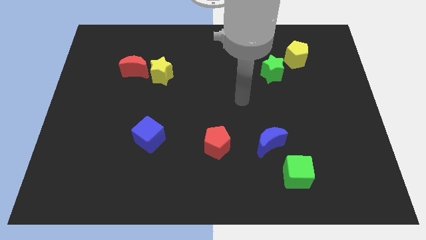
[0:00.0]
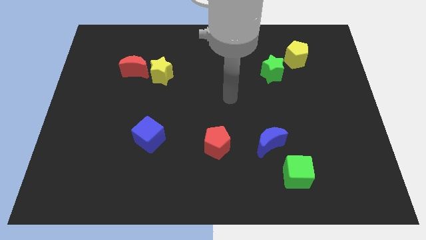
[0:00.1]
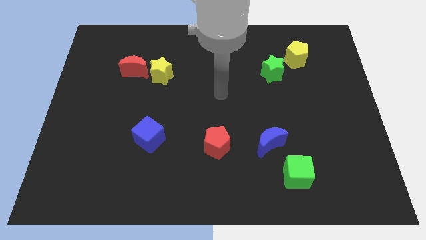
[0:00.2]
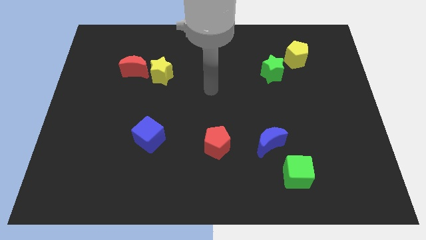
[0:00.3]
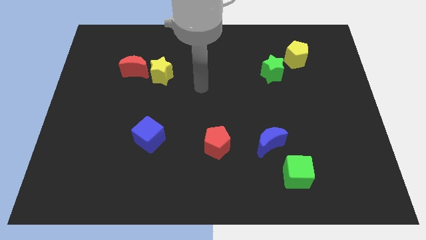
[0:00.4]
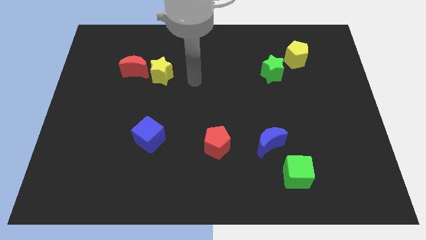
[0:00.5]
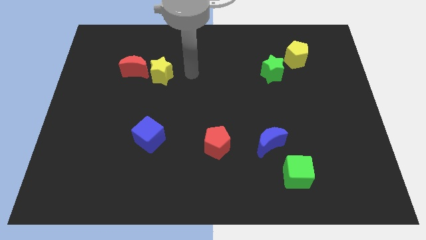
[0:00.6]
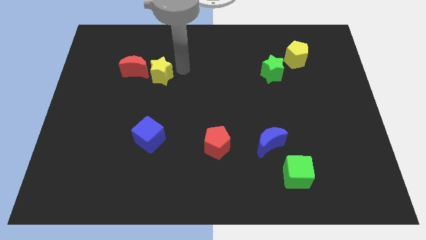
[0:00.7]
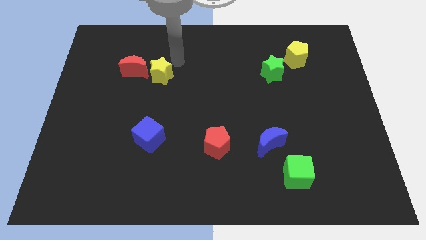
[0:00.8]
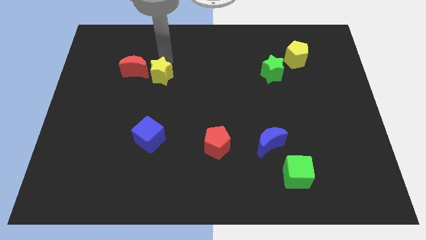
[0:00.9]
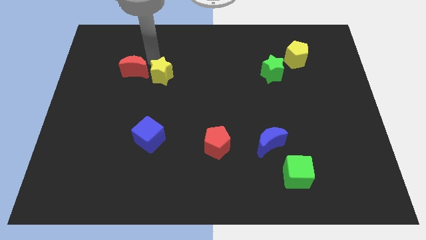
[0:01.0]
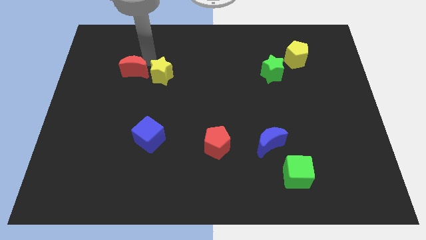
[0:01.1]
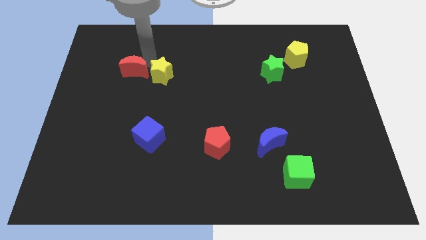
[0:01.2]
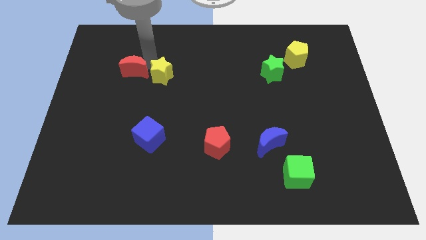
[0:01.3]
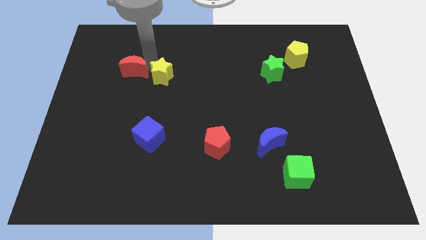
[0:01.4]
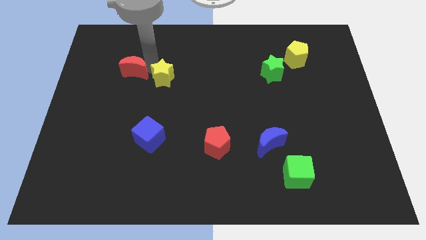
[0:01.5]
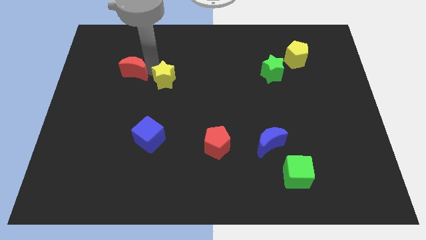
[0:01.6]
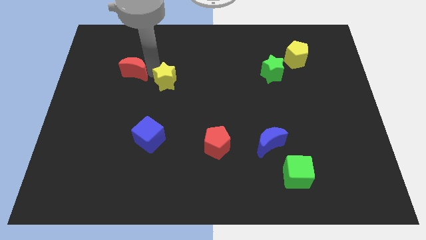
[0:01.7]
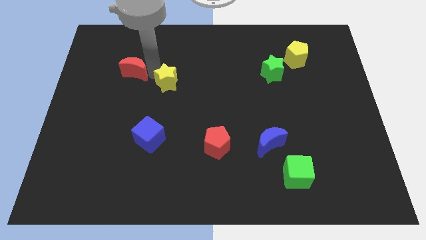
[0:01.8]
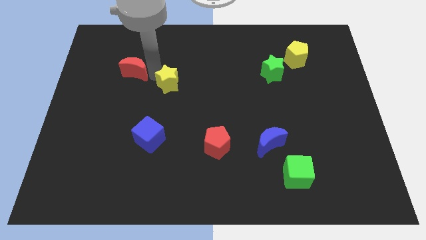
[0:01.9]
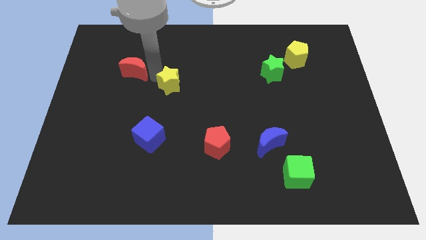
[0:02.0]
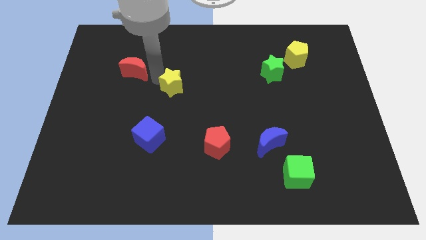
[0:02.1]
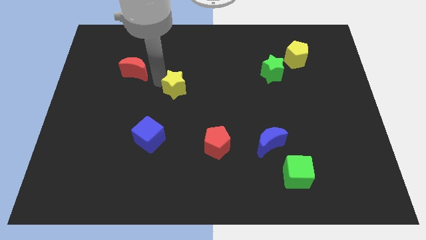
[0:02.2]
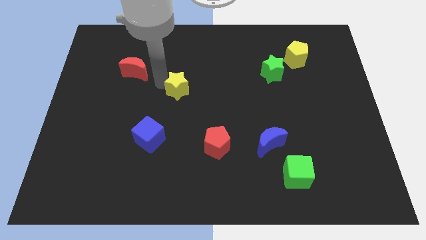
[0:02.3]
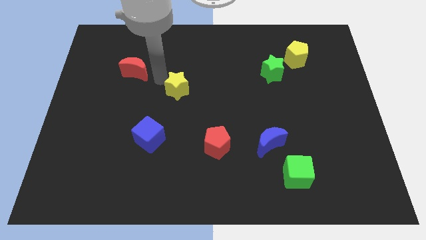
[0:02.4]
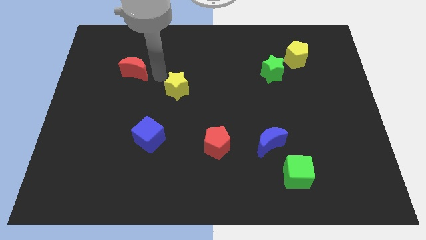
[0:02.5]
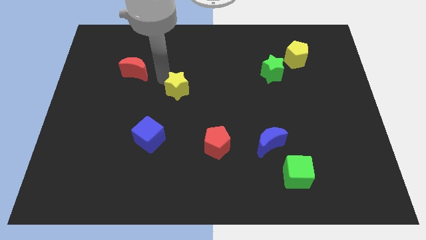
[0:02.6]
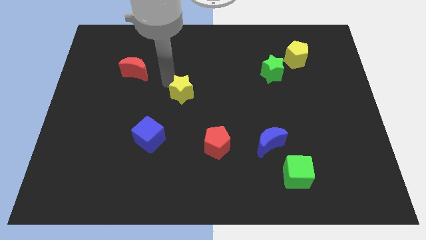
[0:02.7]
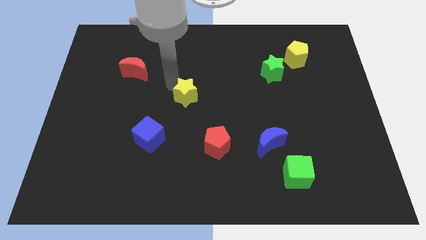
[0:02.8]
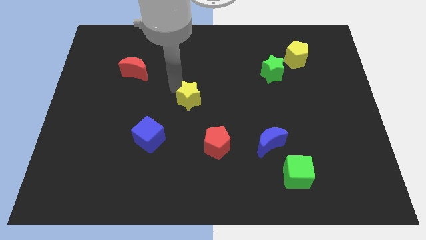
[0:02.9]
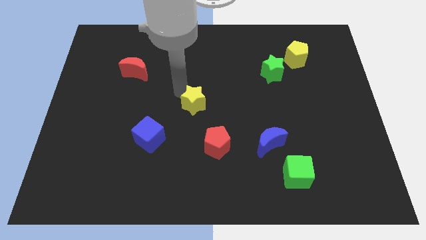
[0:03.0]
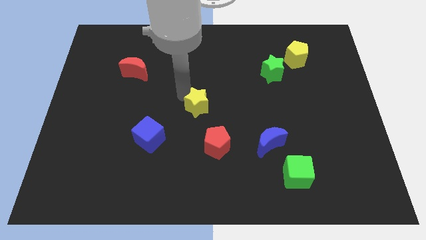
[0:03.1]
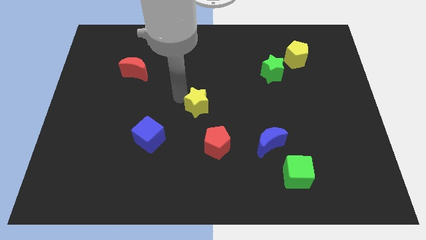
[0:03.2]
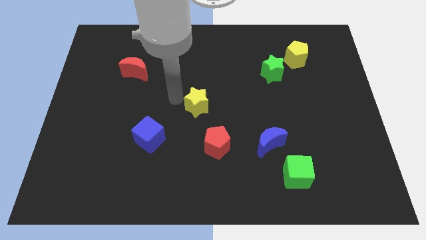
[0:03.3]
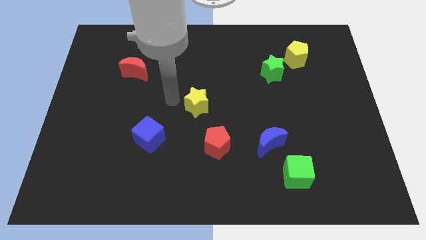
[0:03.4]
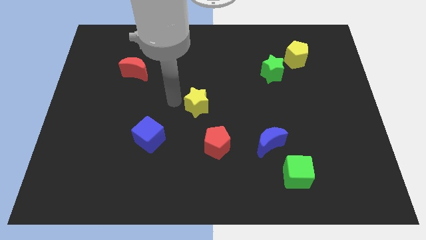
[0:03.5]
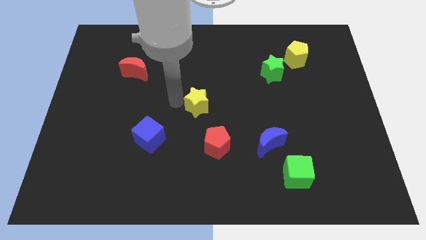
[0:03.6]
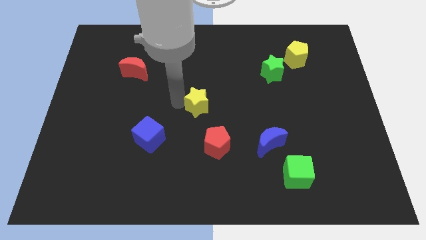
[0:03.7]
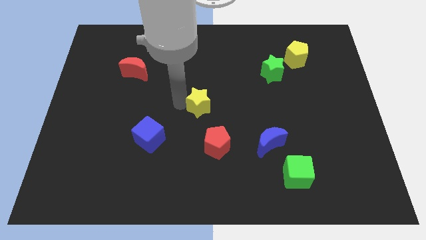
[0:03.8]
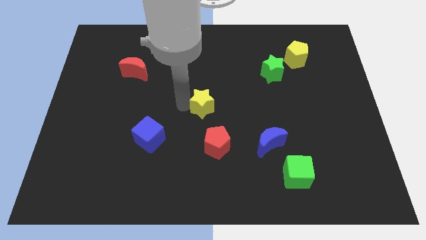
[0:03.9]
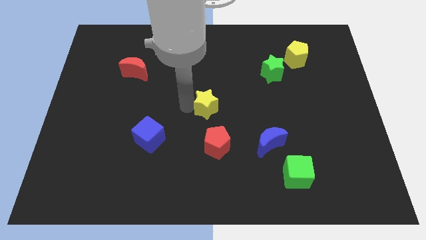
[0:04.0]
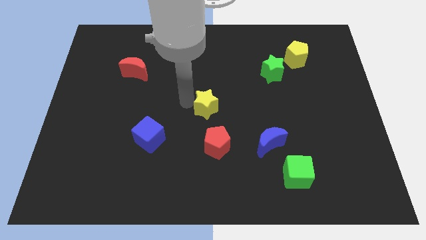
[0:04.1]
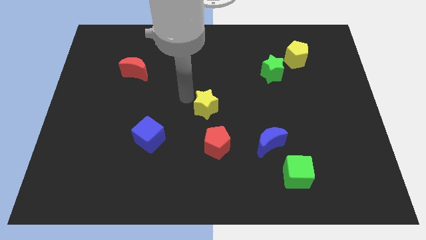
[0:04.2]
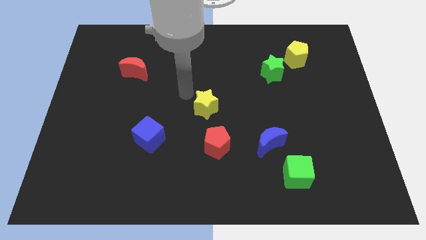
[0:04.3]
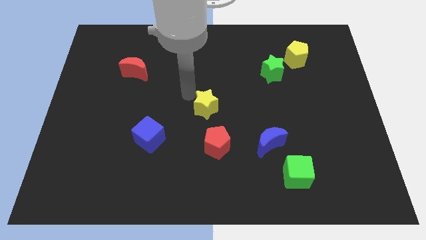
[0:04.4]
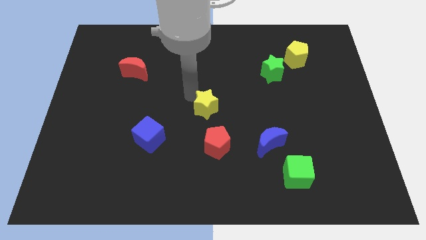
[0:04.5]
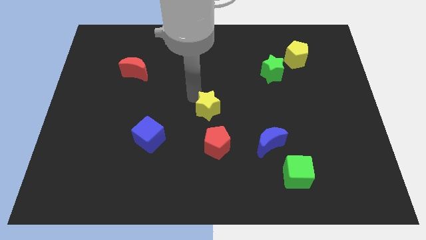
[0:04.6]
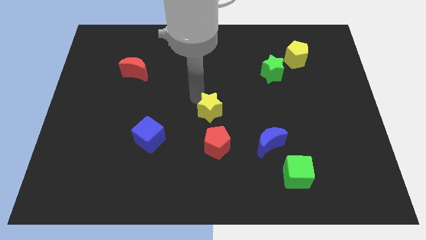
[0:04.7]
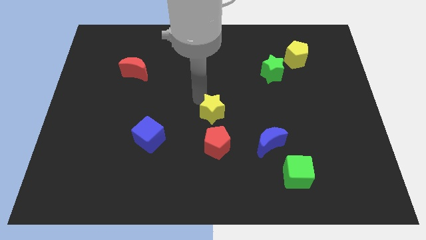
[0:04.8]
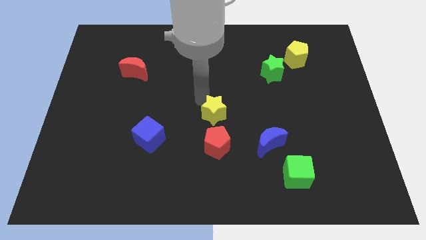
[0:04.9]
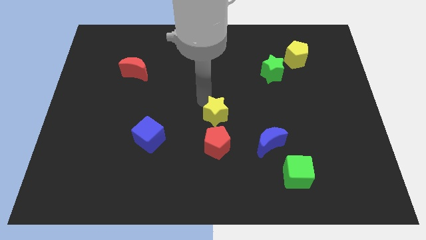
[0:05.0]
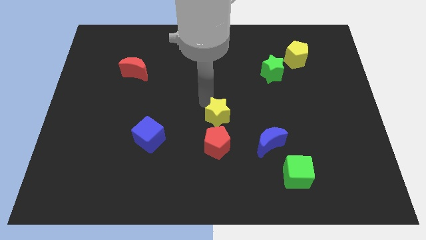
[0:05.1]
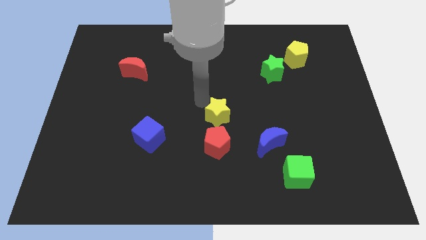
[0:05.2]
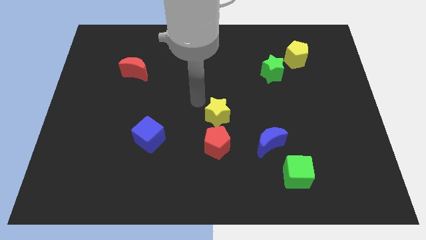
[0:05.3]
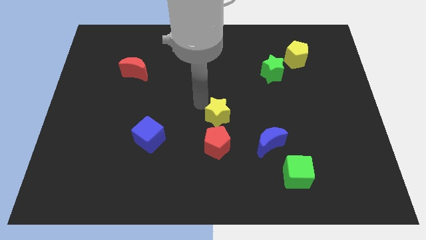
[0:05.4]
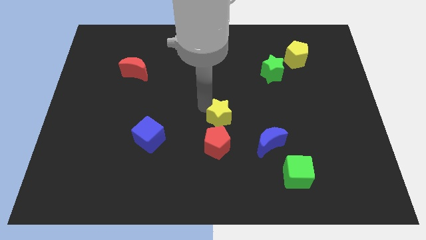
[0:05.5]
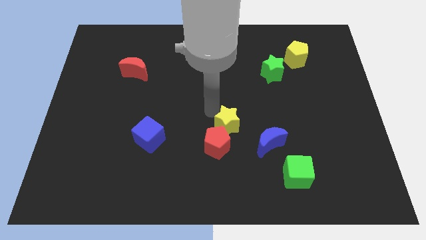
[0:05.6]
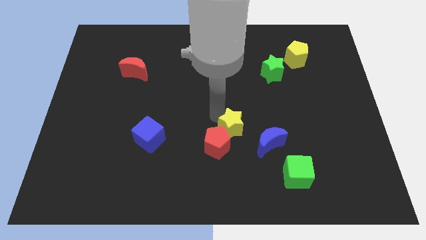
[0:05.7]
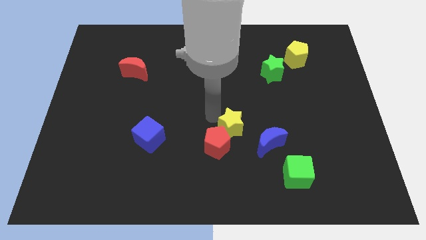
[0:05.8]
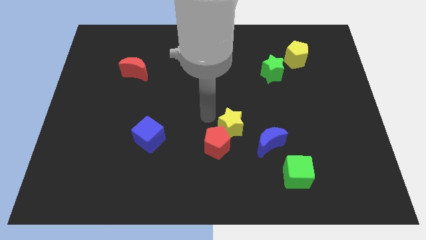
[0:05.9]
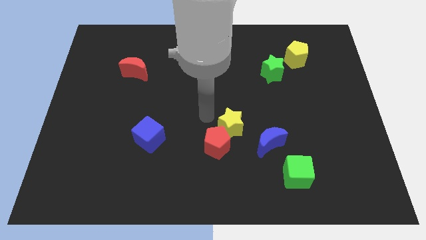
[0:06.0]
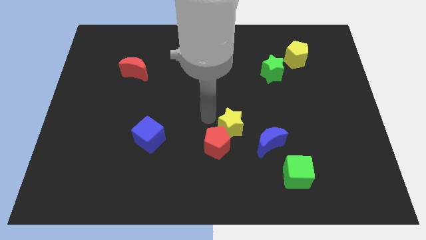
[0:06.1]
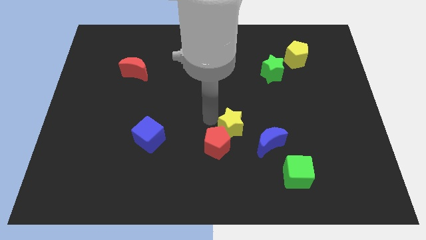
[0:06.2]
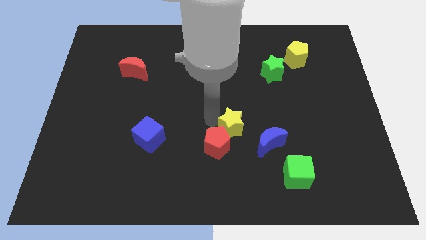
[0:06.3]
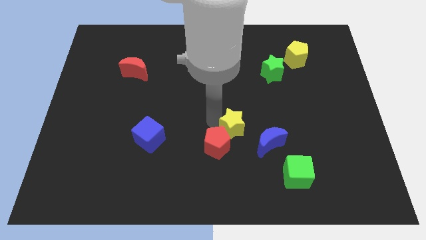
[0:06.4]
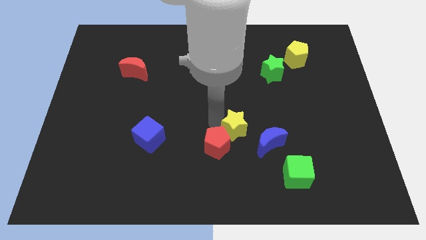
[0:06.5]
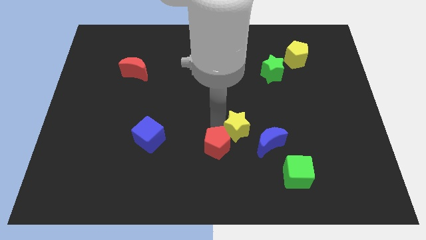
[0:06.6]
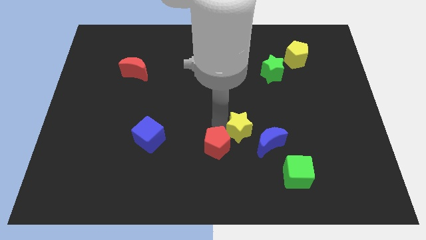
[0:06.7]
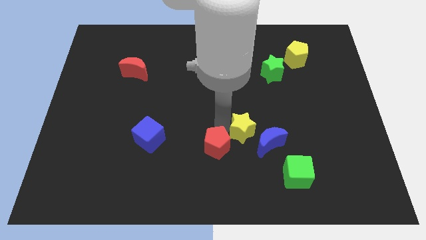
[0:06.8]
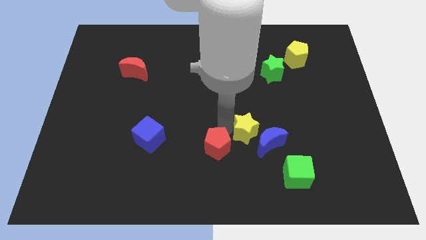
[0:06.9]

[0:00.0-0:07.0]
slide the yellow star next to the blue moon

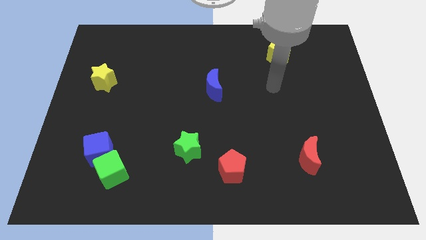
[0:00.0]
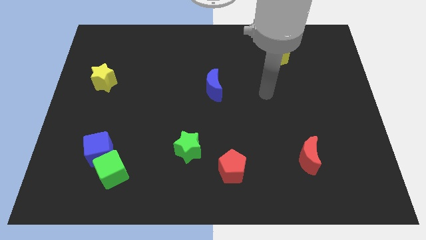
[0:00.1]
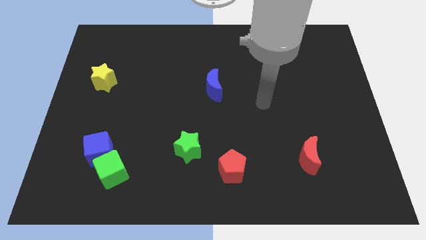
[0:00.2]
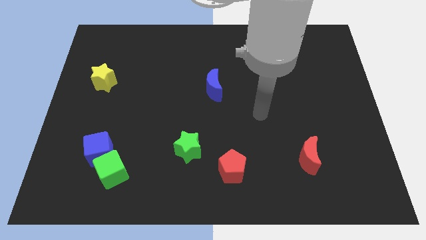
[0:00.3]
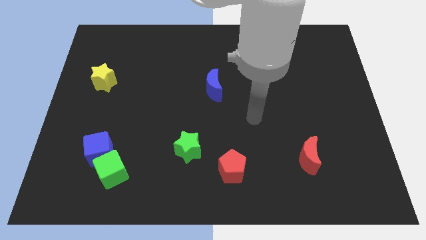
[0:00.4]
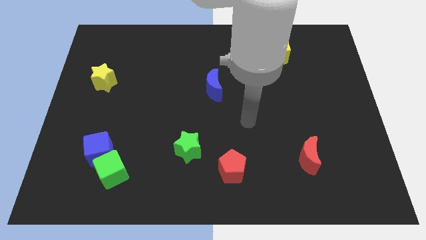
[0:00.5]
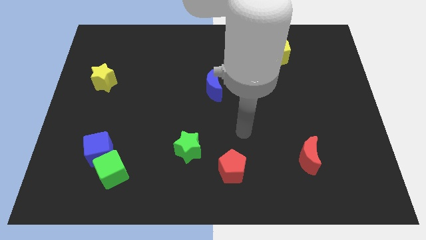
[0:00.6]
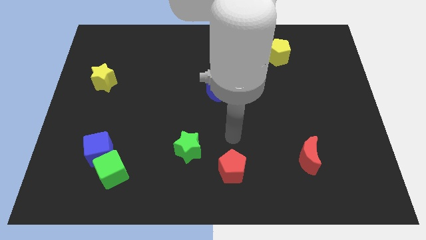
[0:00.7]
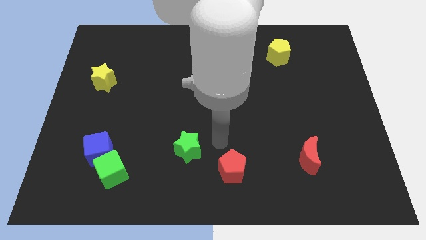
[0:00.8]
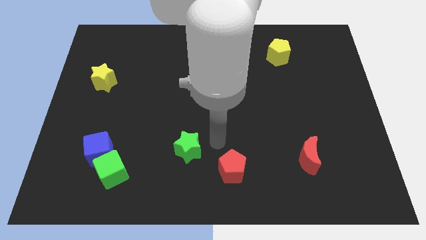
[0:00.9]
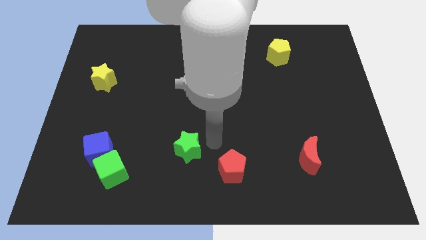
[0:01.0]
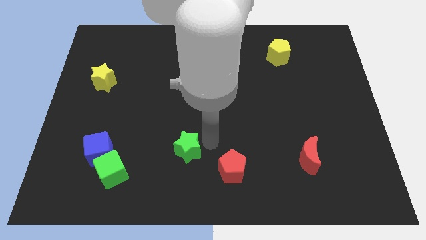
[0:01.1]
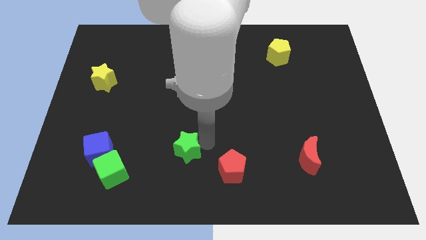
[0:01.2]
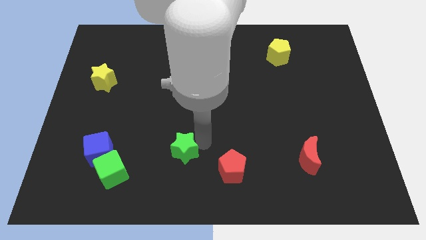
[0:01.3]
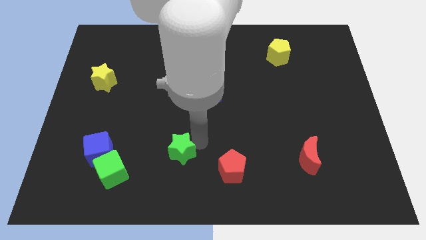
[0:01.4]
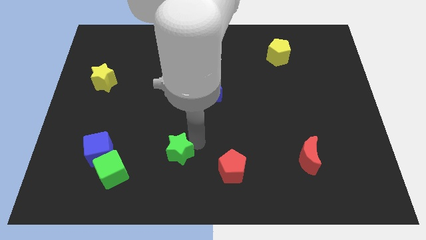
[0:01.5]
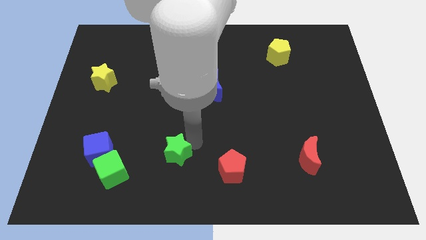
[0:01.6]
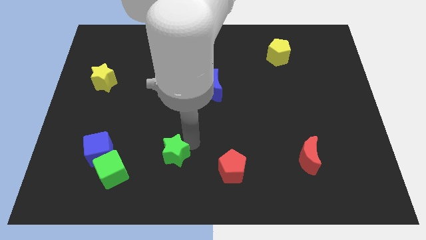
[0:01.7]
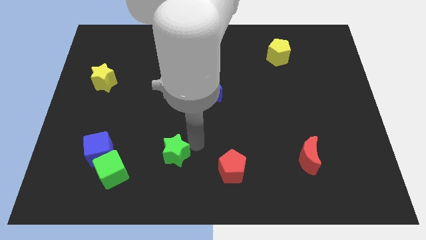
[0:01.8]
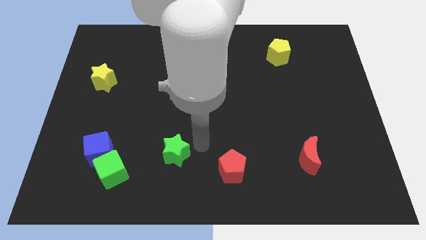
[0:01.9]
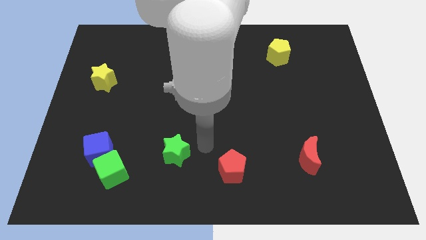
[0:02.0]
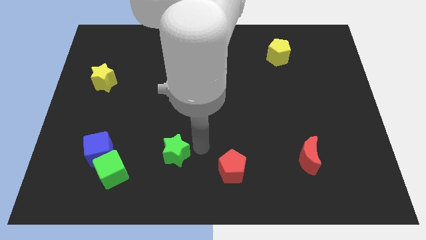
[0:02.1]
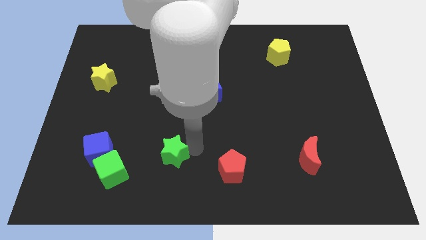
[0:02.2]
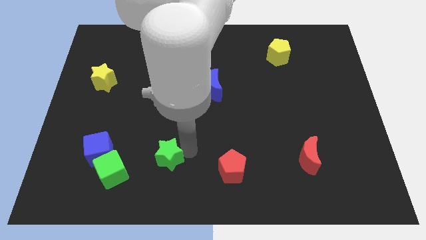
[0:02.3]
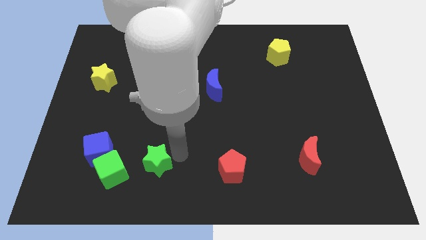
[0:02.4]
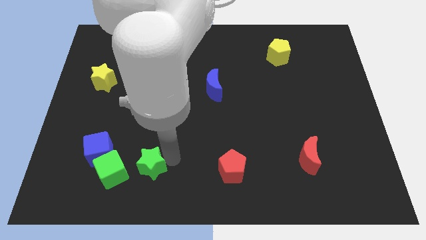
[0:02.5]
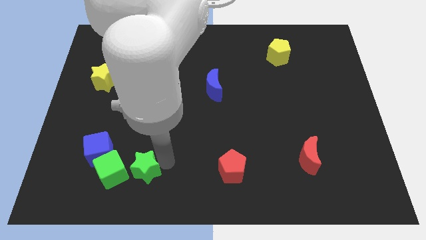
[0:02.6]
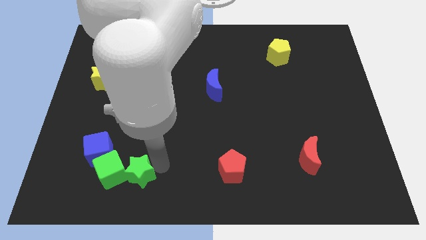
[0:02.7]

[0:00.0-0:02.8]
slide the green star towards the green cube
